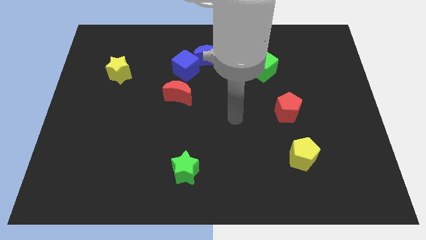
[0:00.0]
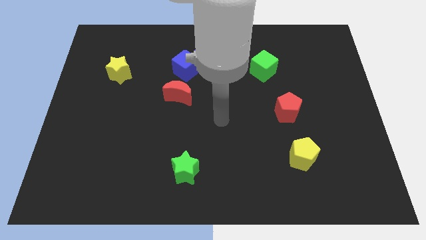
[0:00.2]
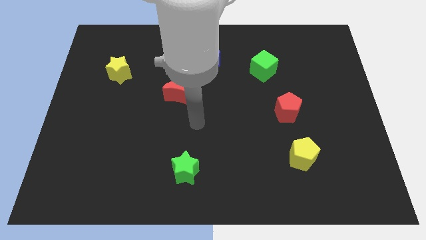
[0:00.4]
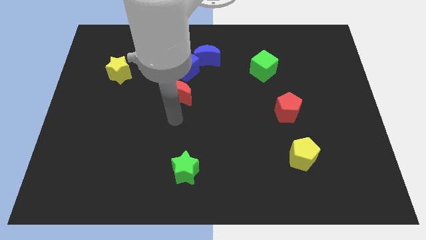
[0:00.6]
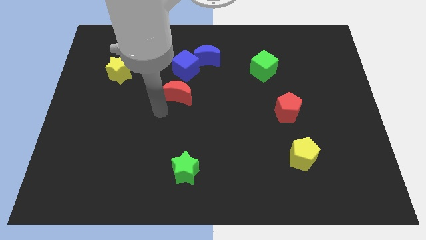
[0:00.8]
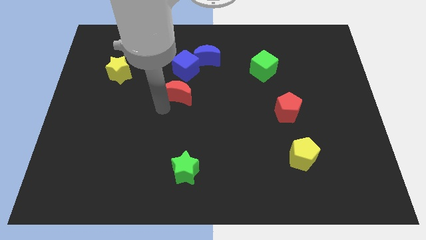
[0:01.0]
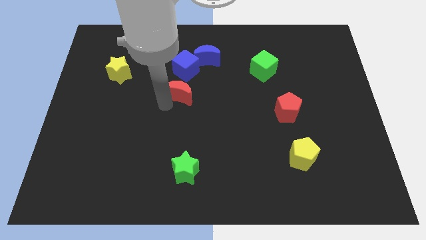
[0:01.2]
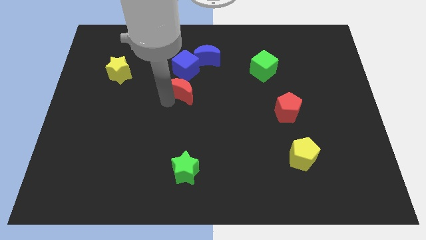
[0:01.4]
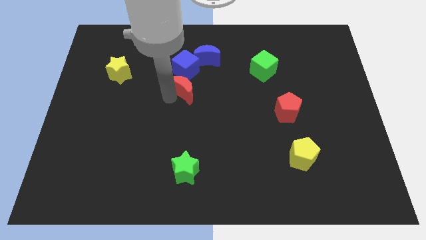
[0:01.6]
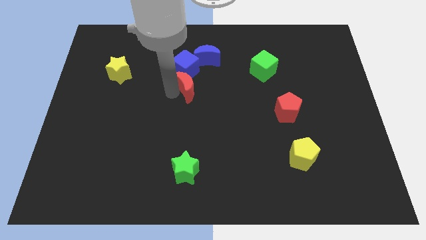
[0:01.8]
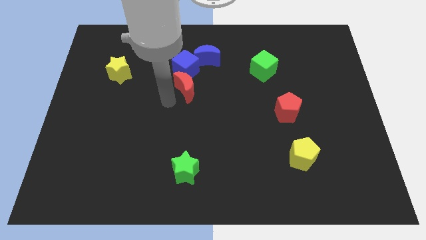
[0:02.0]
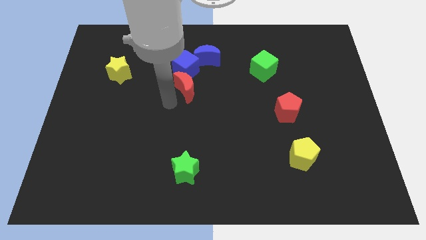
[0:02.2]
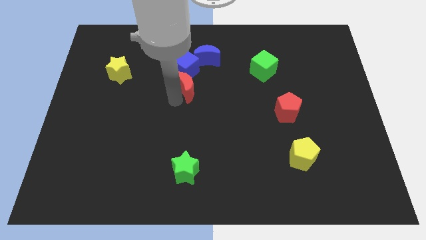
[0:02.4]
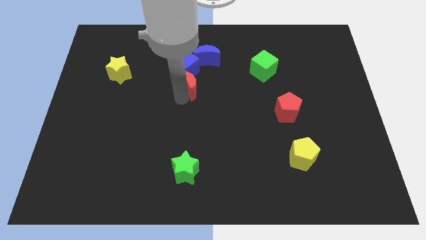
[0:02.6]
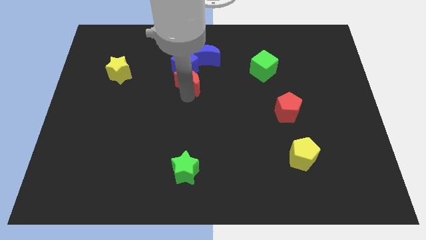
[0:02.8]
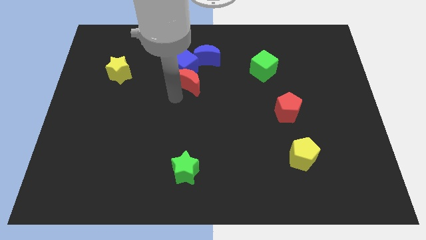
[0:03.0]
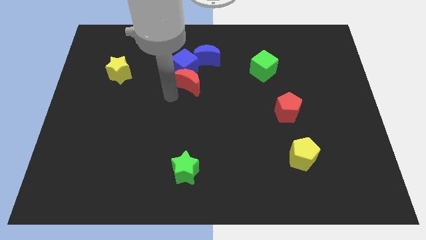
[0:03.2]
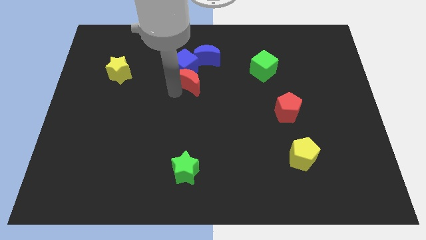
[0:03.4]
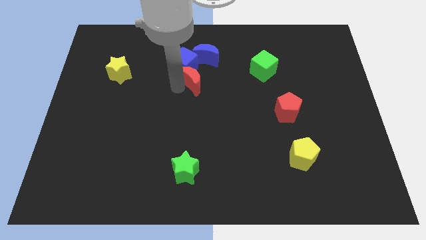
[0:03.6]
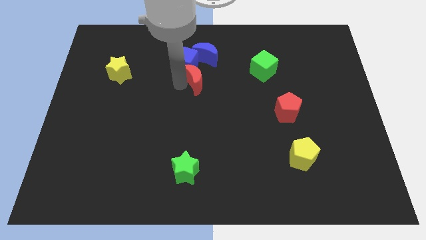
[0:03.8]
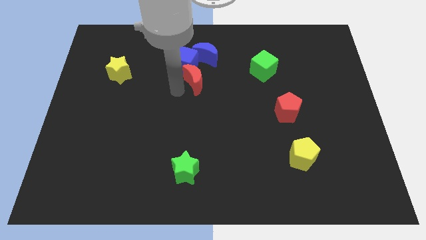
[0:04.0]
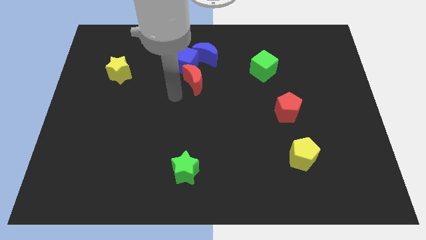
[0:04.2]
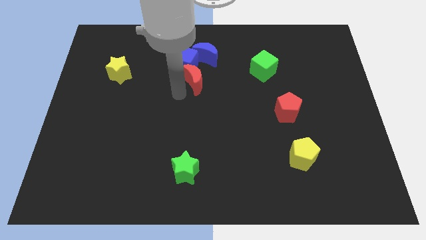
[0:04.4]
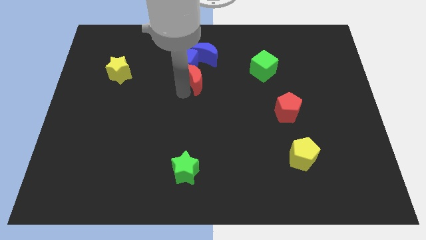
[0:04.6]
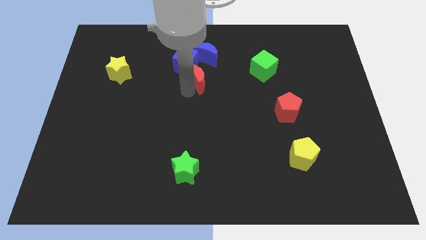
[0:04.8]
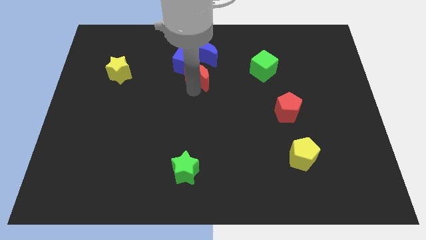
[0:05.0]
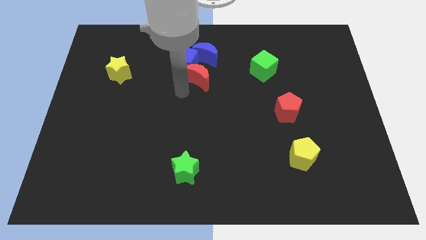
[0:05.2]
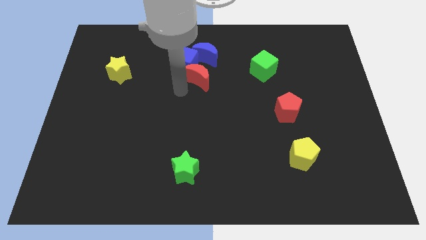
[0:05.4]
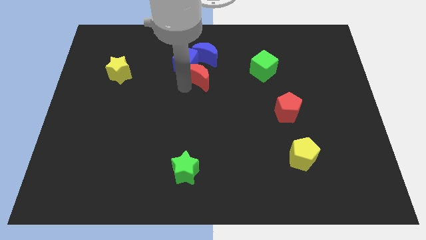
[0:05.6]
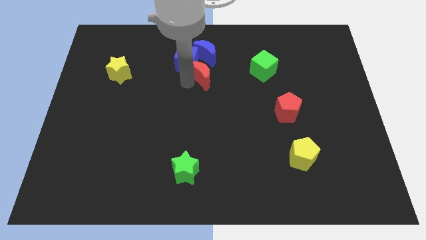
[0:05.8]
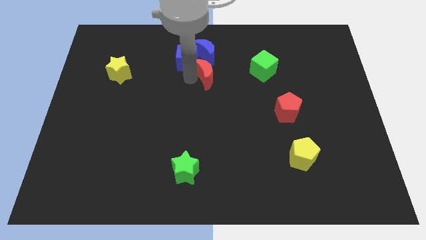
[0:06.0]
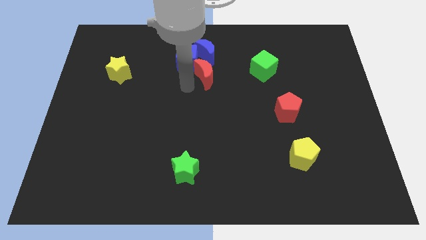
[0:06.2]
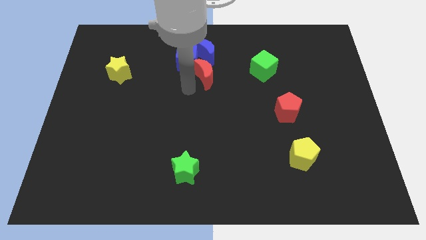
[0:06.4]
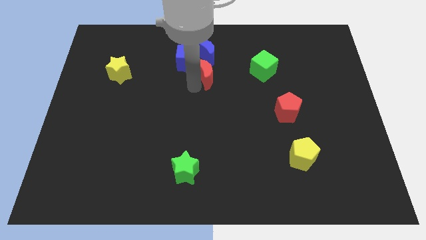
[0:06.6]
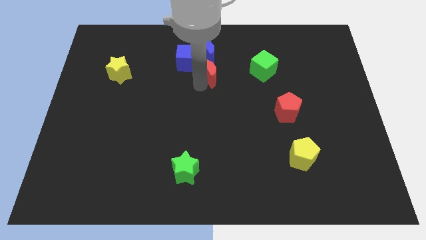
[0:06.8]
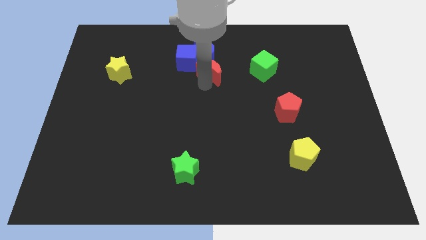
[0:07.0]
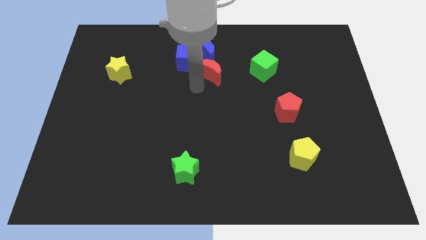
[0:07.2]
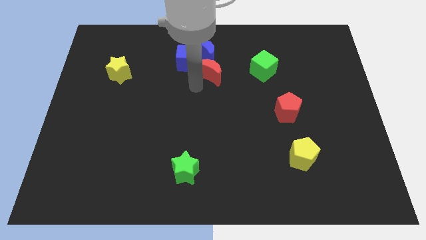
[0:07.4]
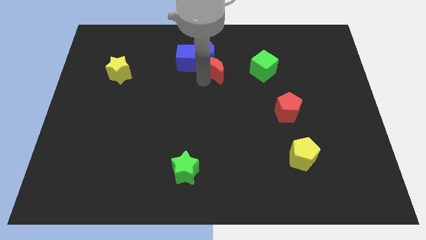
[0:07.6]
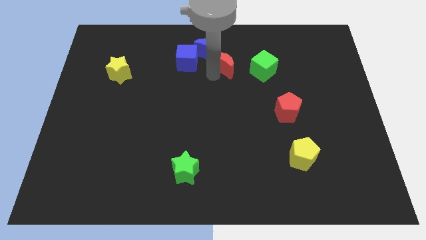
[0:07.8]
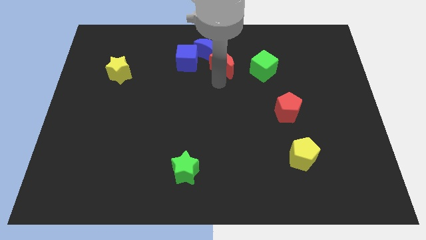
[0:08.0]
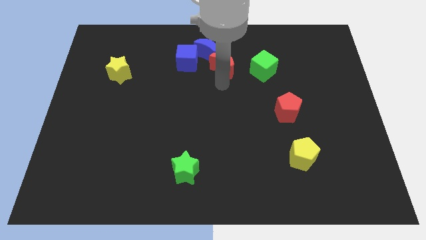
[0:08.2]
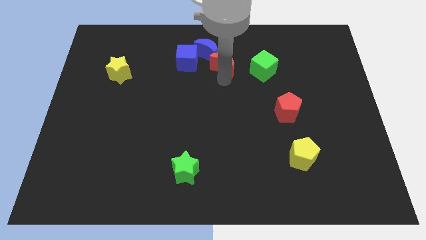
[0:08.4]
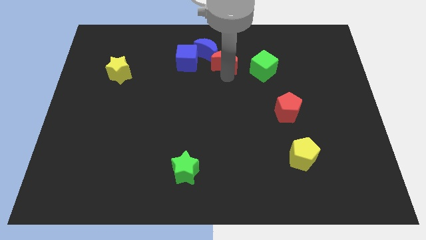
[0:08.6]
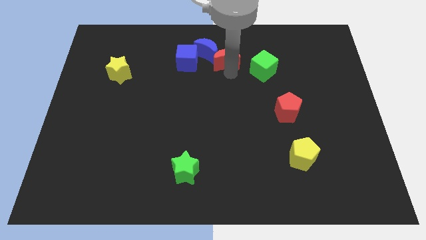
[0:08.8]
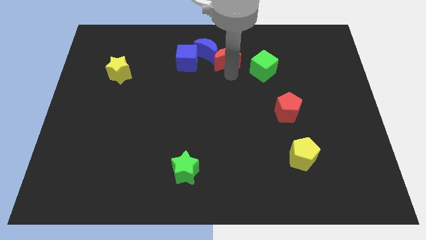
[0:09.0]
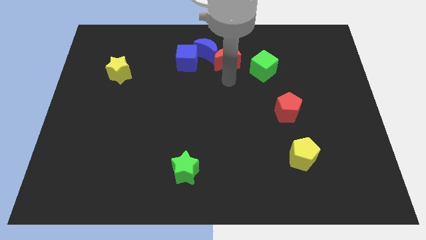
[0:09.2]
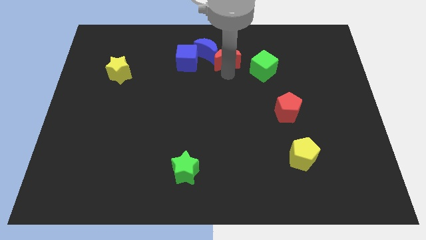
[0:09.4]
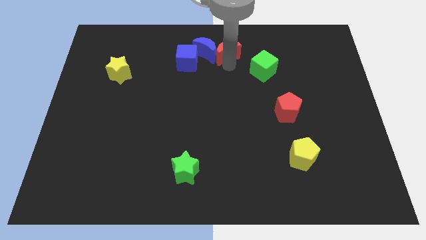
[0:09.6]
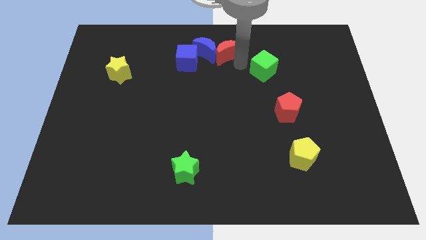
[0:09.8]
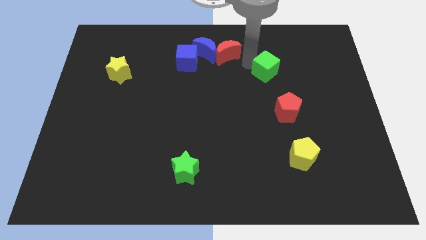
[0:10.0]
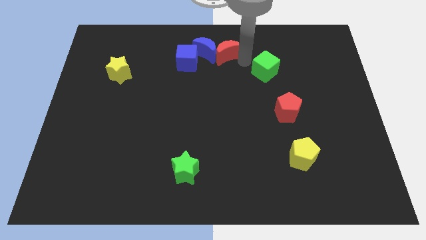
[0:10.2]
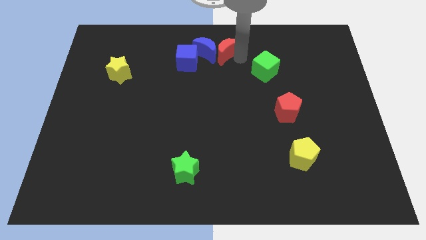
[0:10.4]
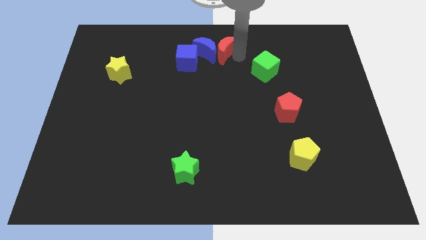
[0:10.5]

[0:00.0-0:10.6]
push the red moon diagonally up and to the right of the blue cube

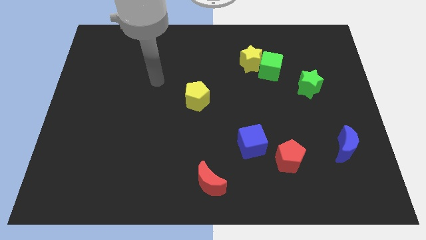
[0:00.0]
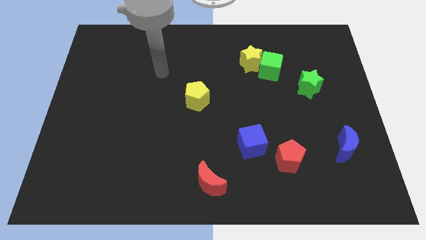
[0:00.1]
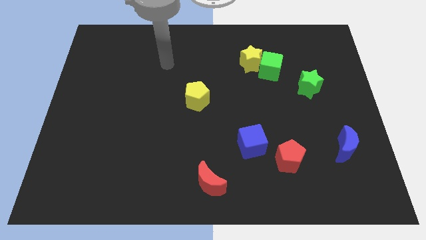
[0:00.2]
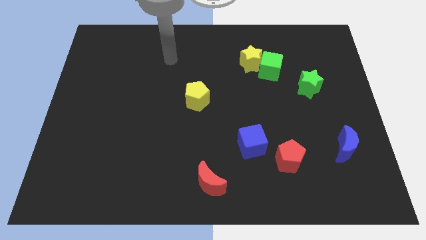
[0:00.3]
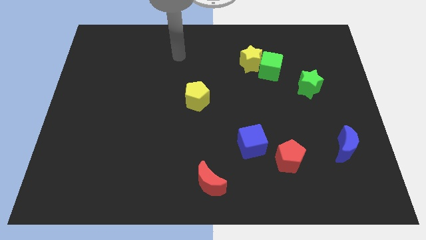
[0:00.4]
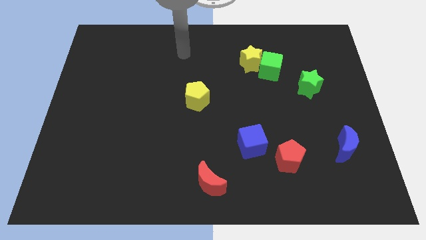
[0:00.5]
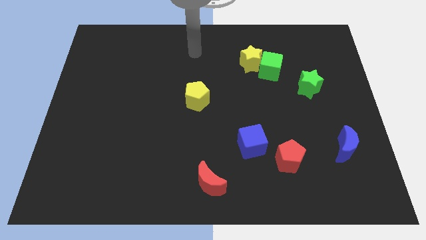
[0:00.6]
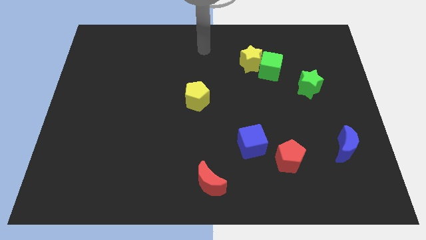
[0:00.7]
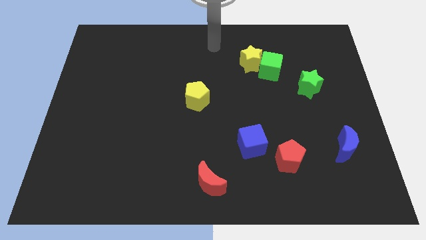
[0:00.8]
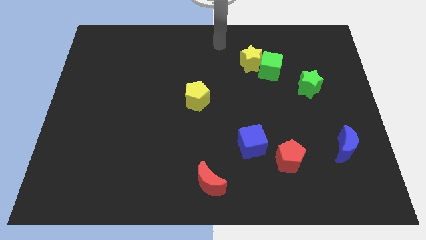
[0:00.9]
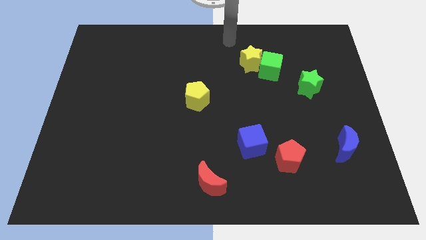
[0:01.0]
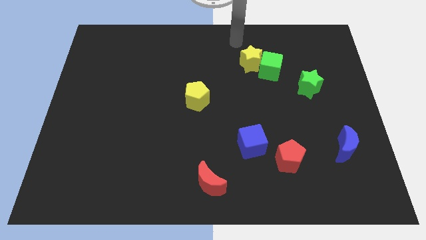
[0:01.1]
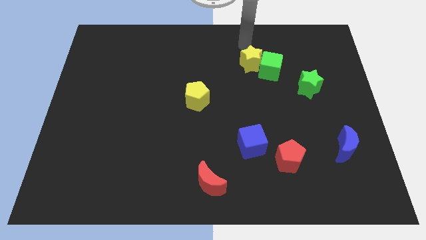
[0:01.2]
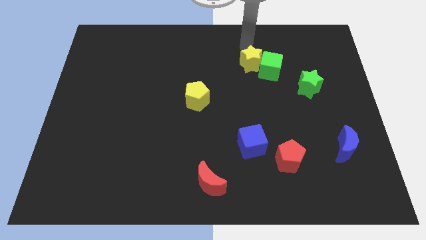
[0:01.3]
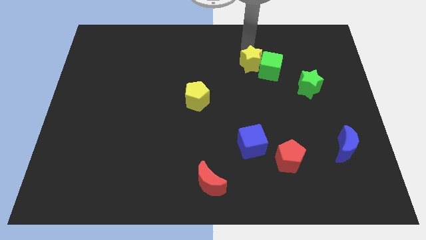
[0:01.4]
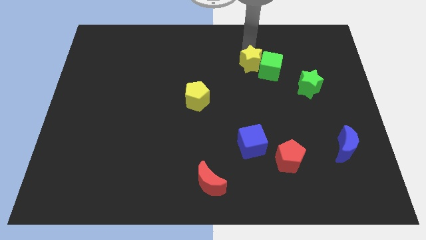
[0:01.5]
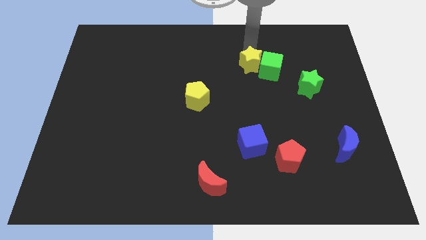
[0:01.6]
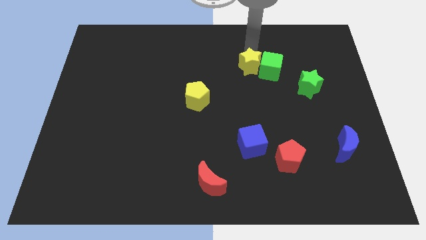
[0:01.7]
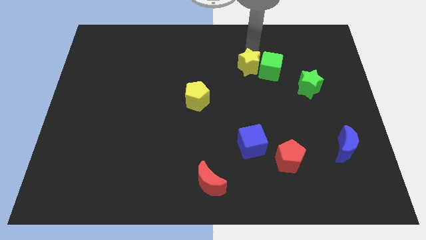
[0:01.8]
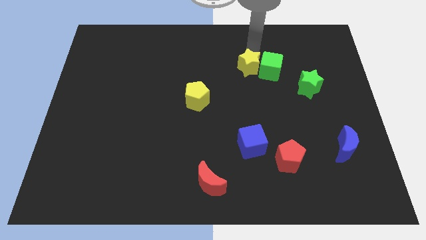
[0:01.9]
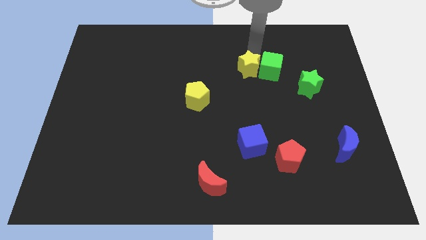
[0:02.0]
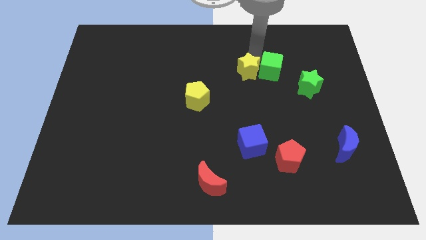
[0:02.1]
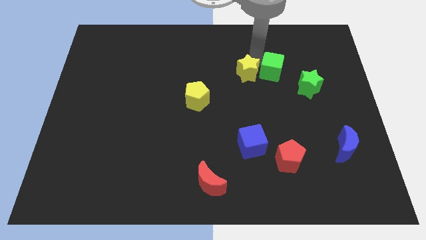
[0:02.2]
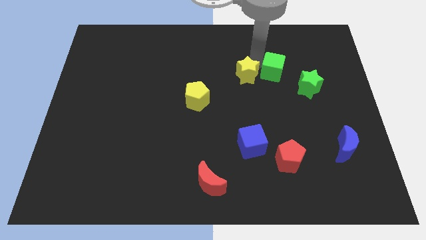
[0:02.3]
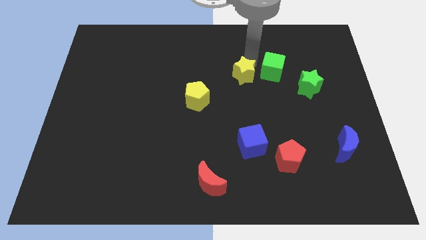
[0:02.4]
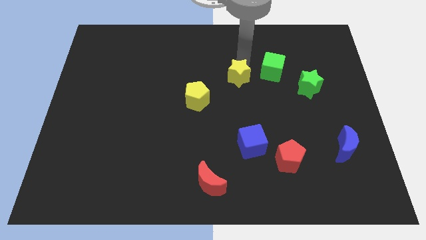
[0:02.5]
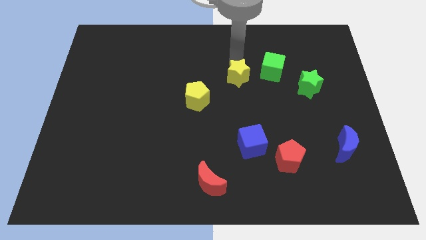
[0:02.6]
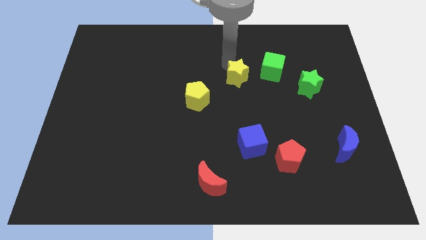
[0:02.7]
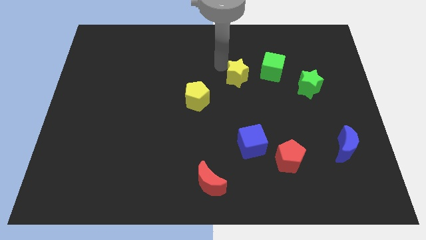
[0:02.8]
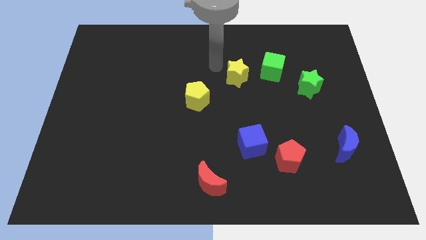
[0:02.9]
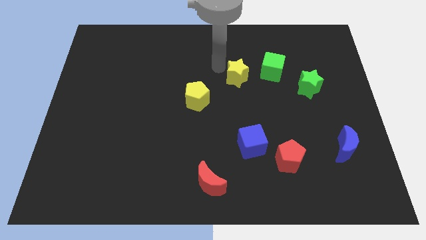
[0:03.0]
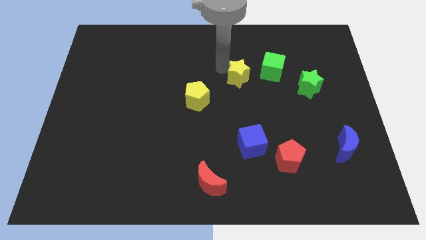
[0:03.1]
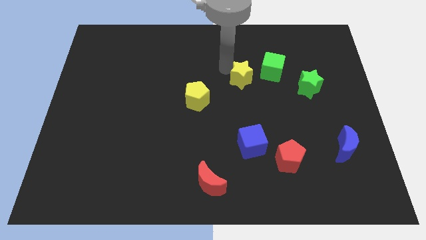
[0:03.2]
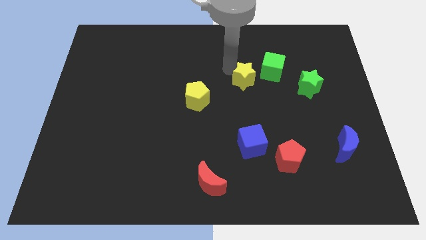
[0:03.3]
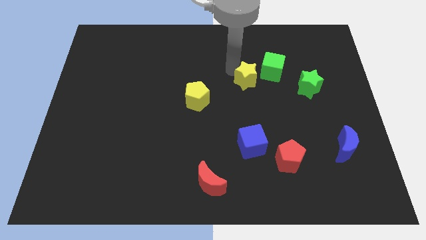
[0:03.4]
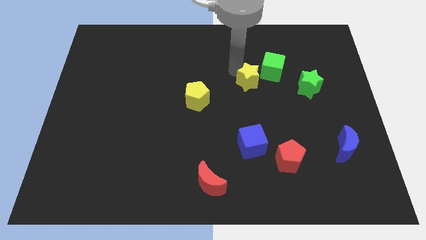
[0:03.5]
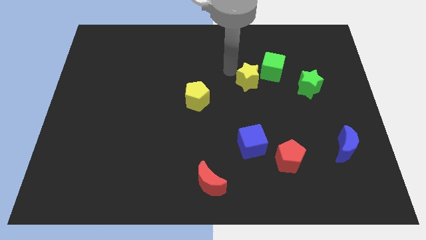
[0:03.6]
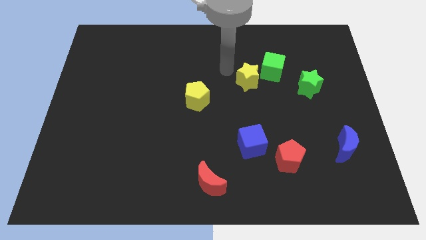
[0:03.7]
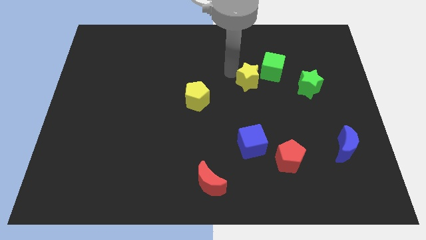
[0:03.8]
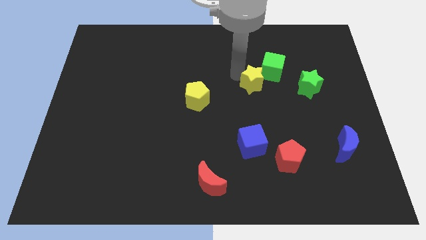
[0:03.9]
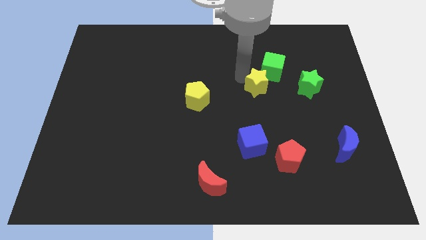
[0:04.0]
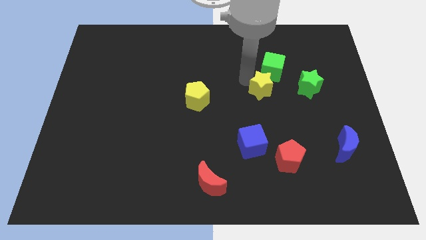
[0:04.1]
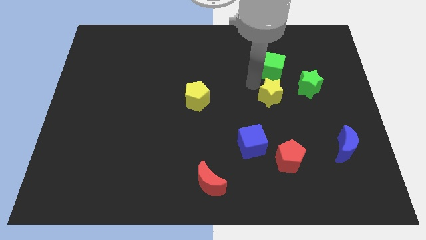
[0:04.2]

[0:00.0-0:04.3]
put the yellow star to the bottom left of the green star
